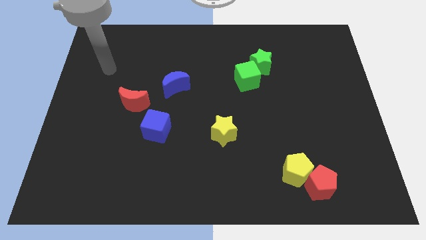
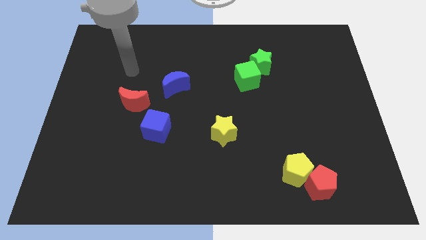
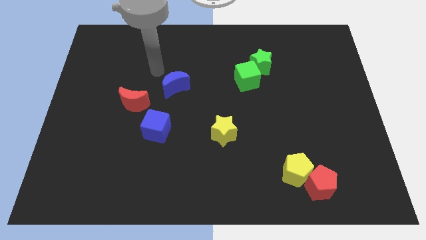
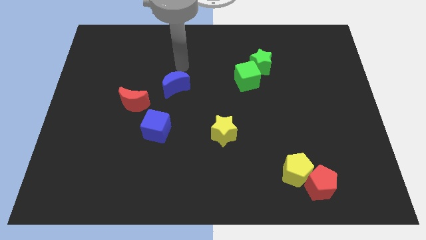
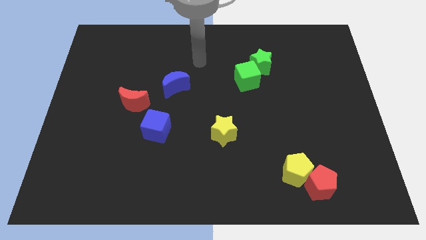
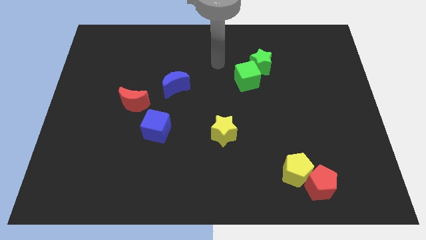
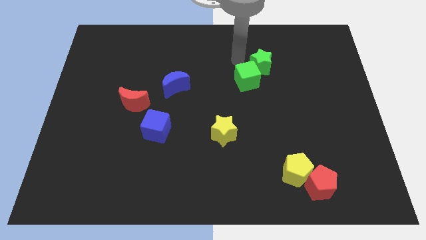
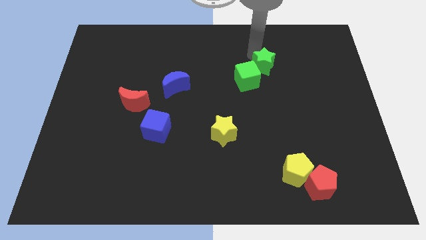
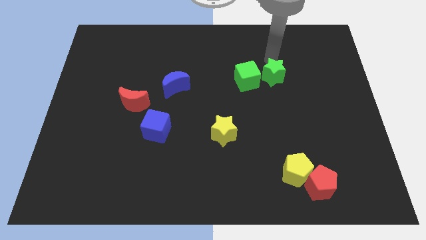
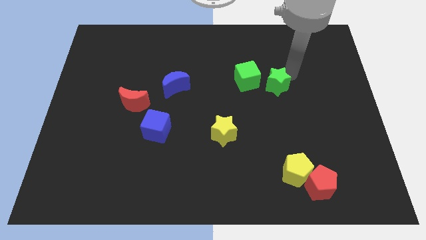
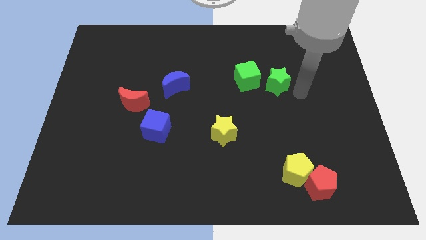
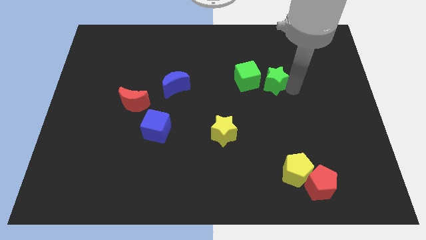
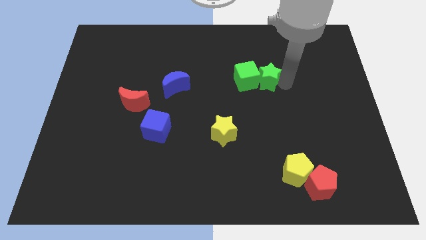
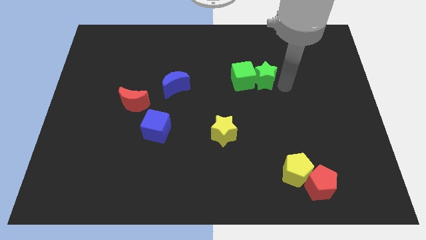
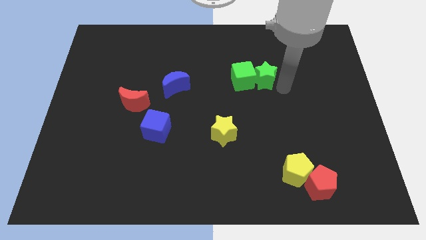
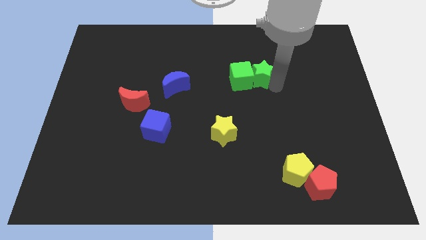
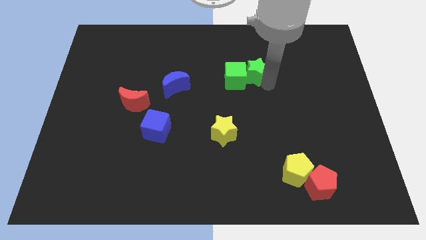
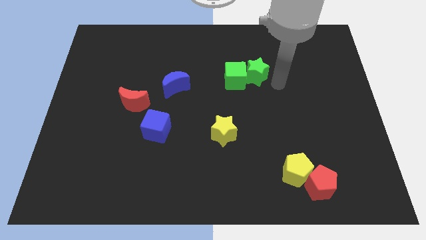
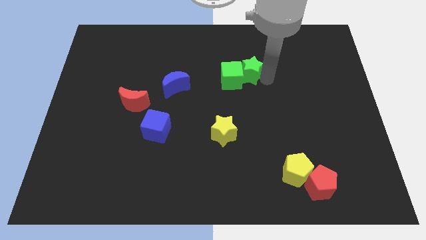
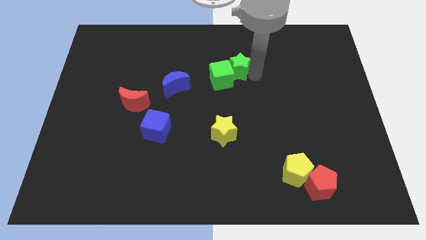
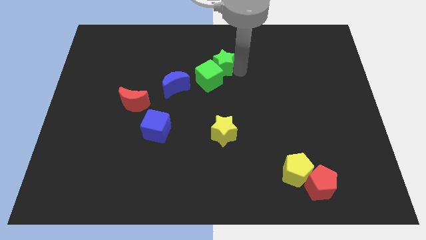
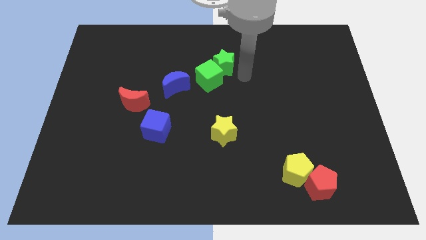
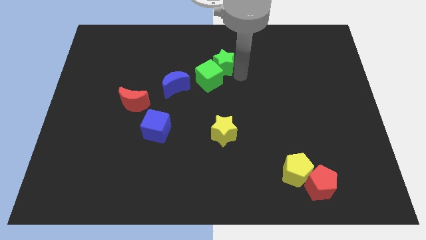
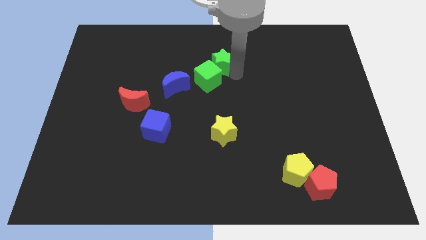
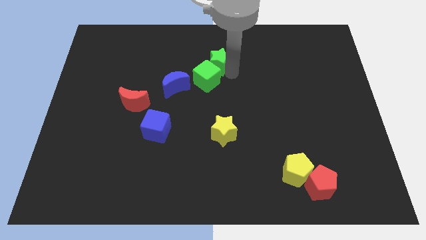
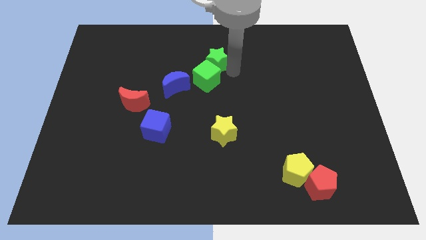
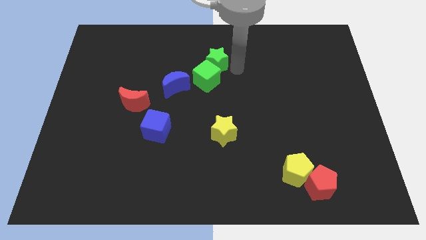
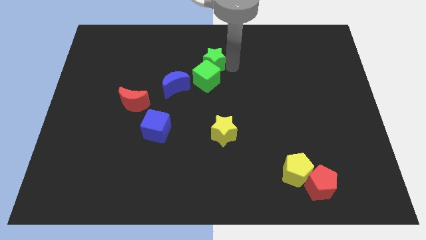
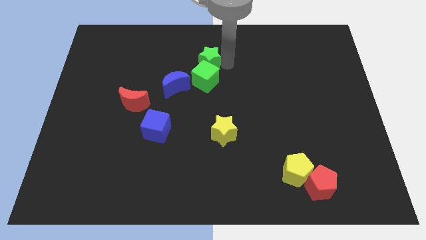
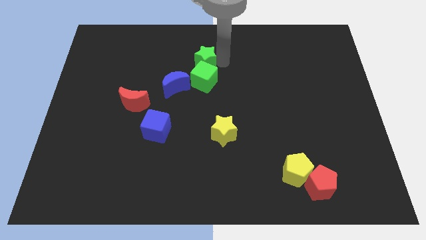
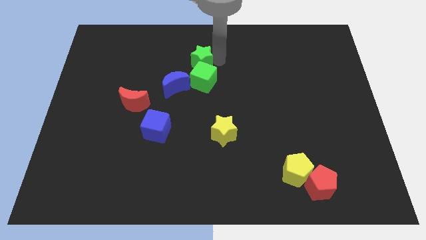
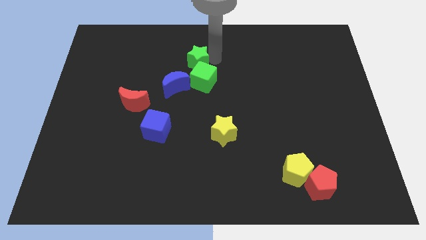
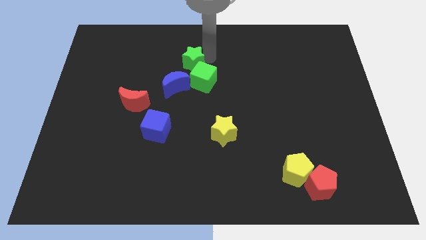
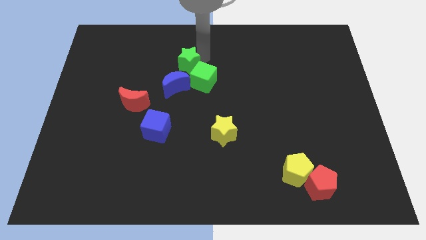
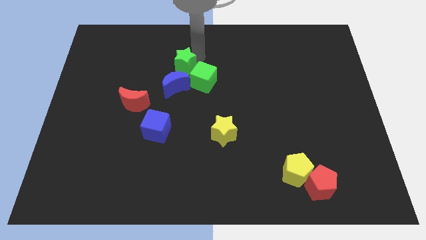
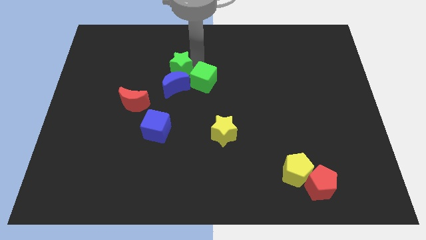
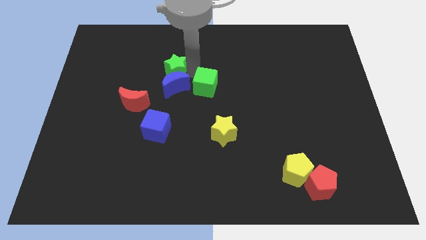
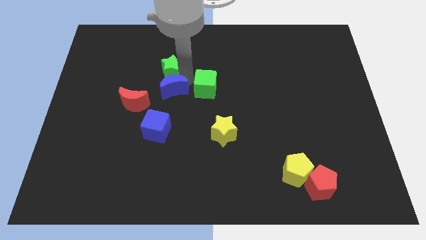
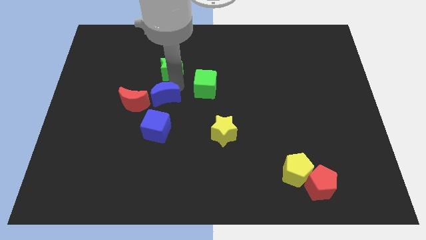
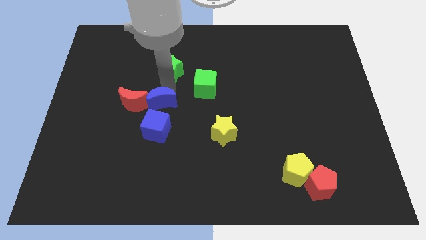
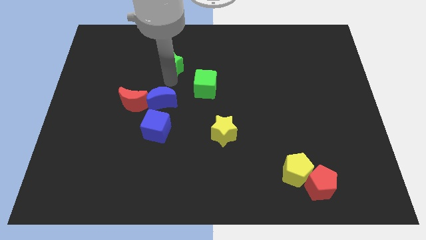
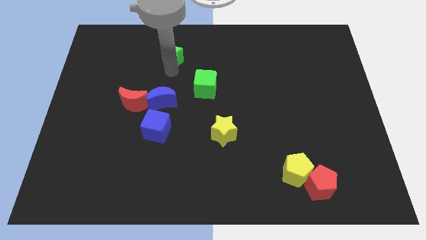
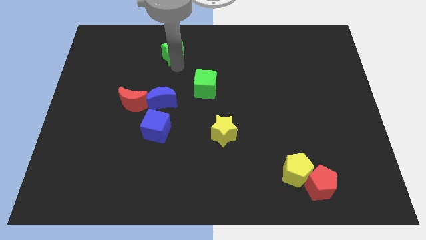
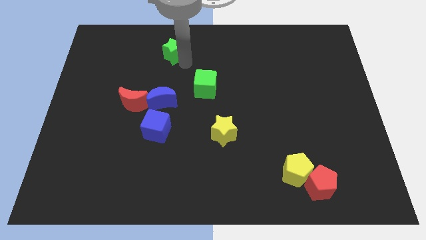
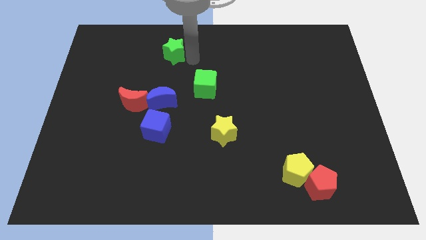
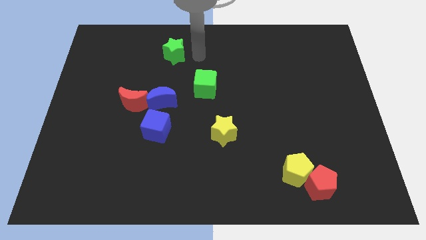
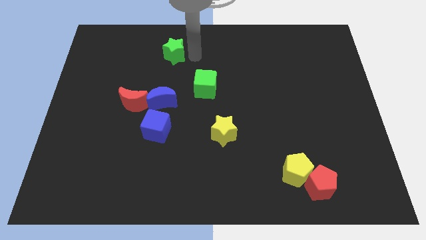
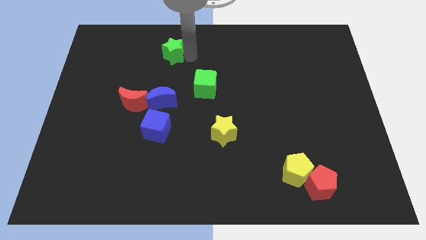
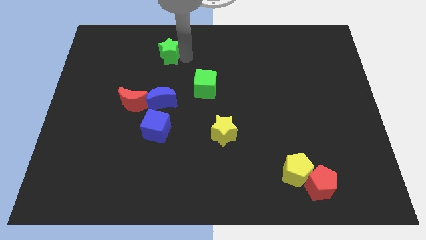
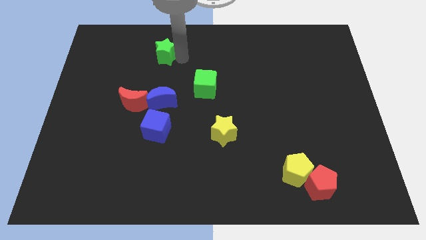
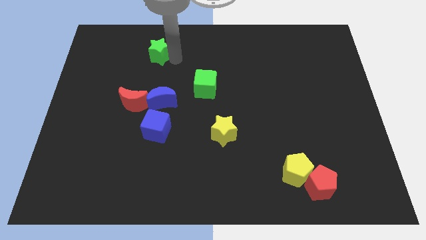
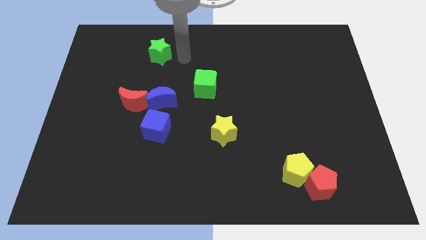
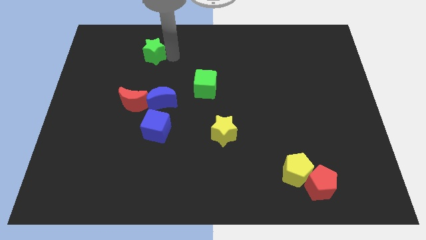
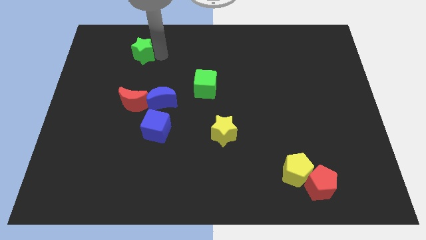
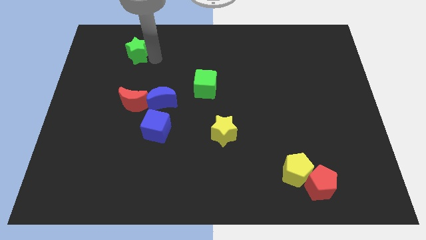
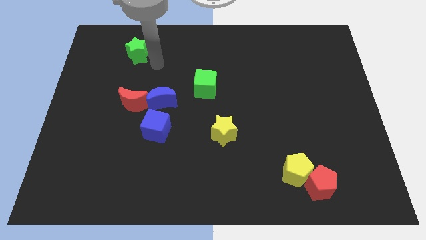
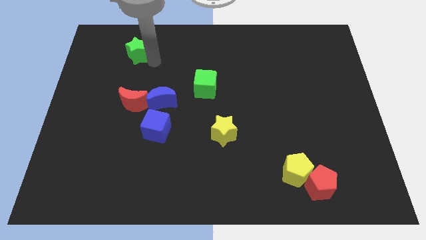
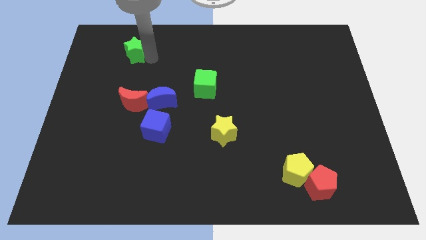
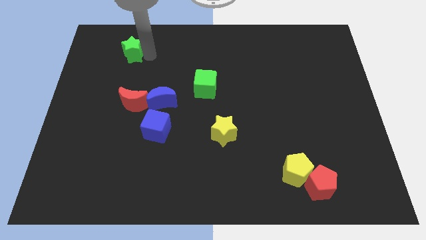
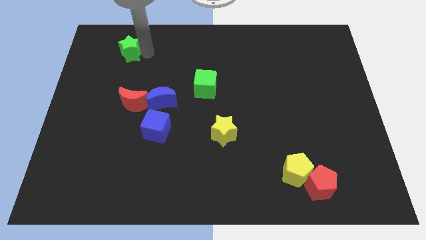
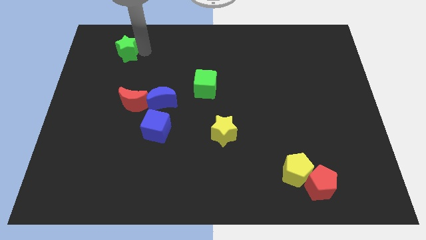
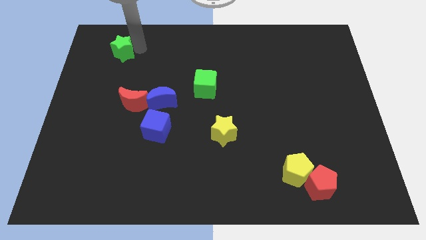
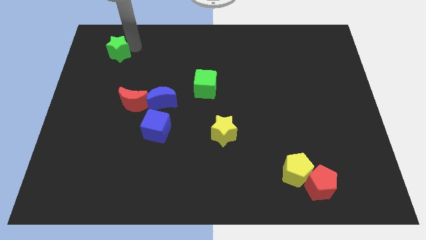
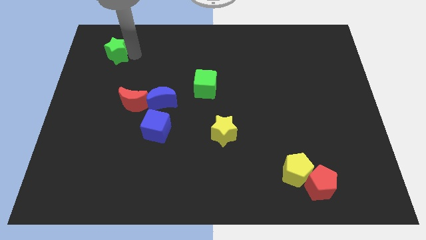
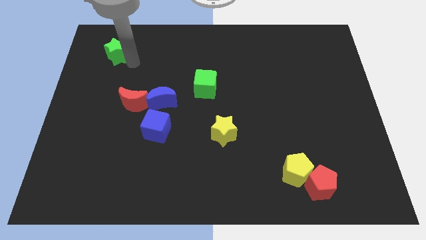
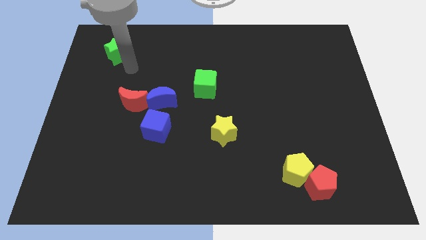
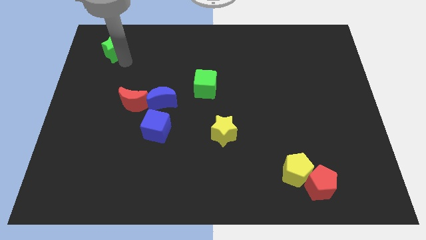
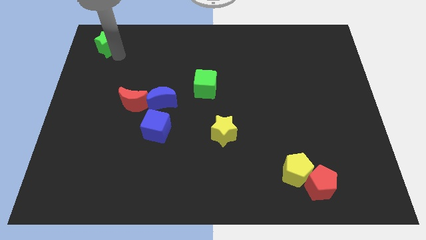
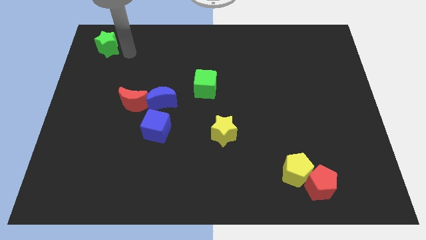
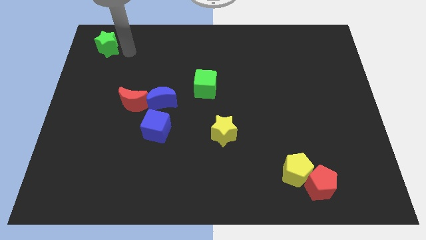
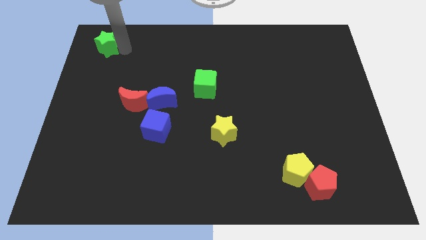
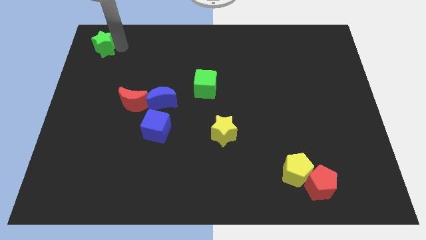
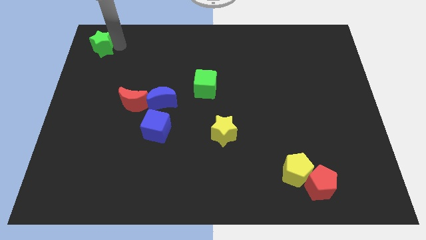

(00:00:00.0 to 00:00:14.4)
put the green star to the upper left corner
